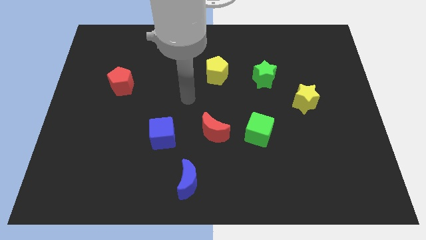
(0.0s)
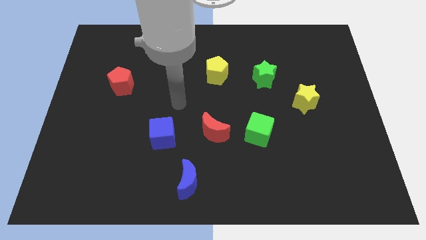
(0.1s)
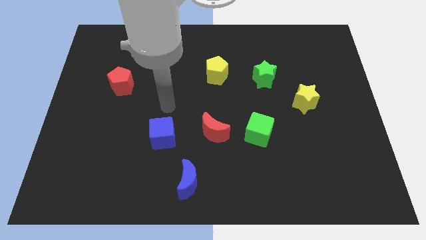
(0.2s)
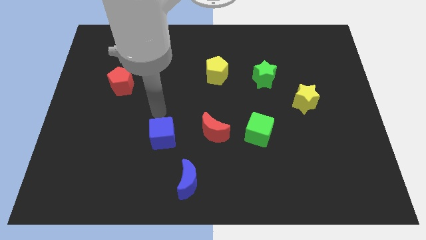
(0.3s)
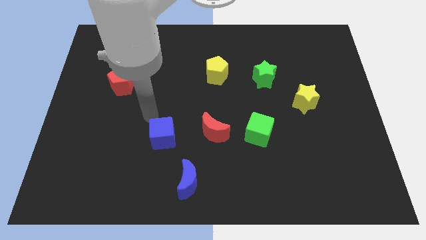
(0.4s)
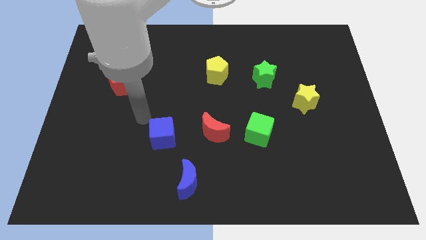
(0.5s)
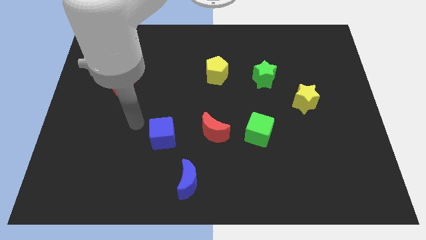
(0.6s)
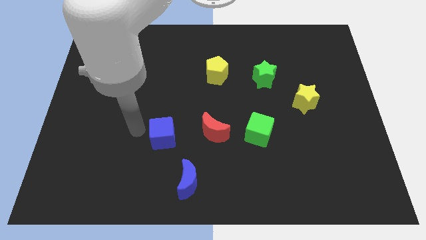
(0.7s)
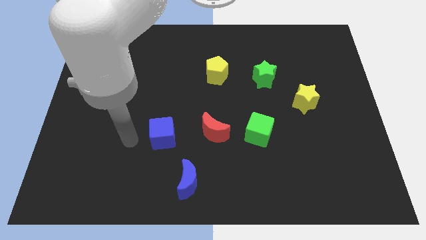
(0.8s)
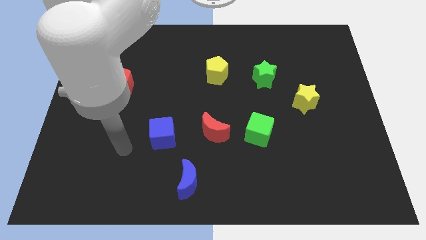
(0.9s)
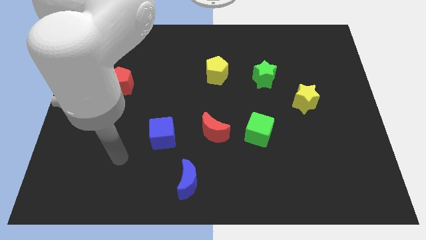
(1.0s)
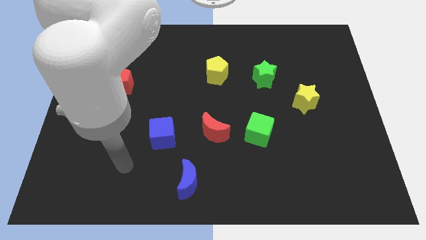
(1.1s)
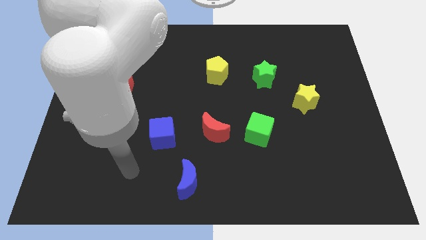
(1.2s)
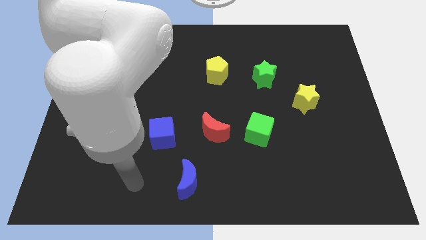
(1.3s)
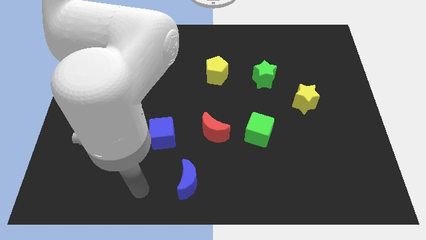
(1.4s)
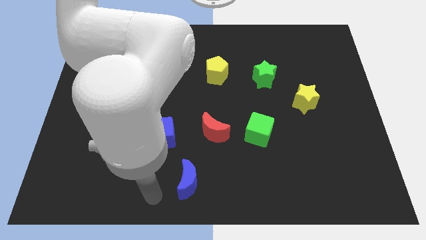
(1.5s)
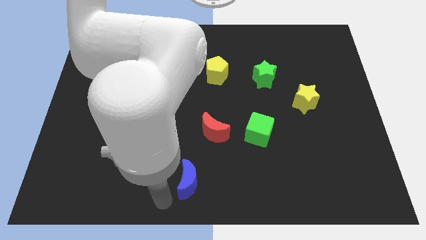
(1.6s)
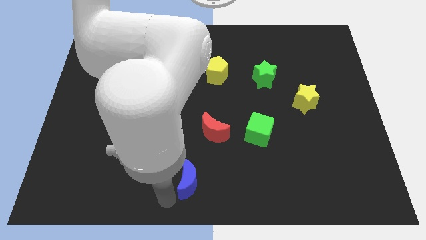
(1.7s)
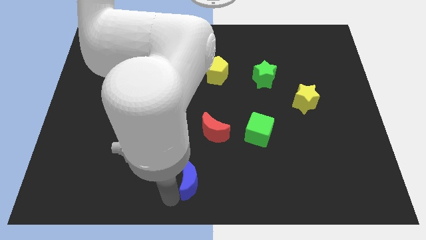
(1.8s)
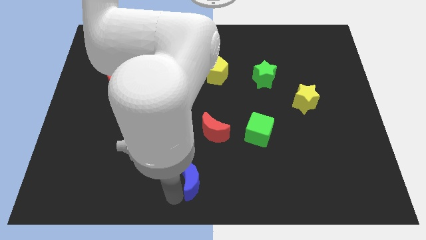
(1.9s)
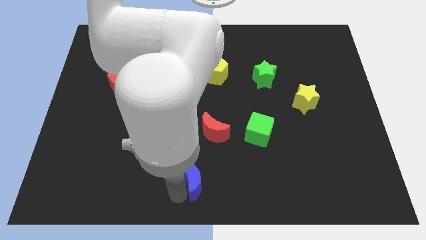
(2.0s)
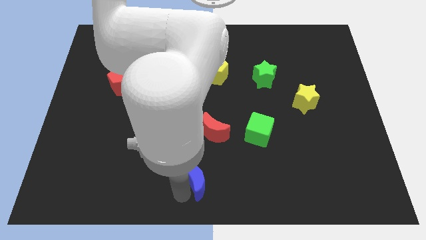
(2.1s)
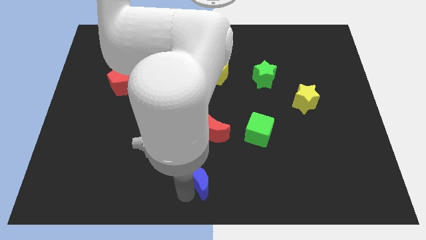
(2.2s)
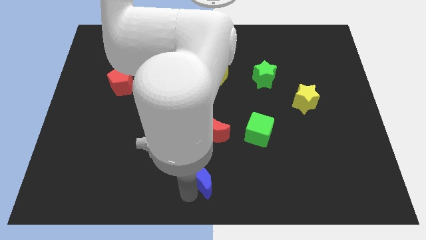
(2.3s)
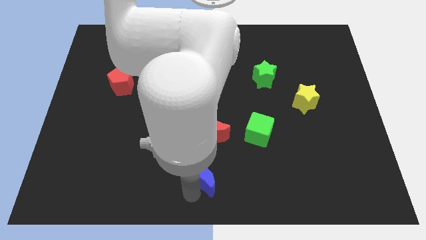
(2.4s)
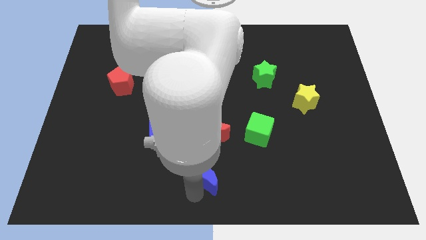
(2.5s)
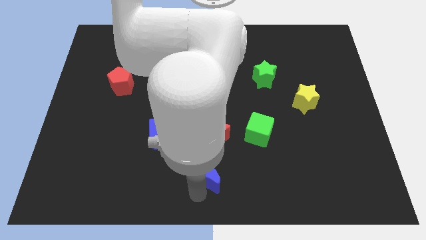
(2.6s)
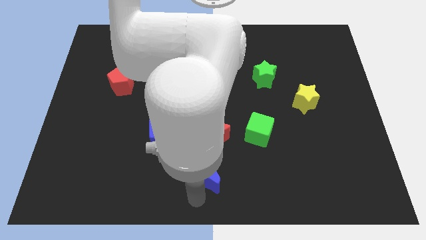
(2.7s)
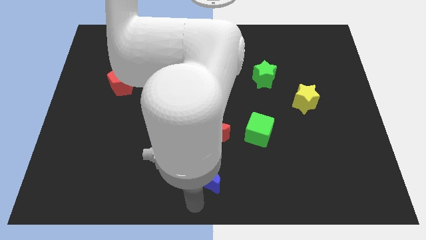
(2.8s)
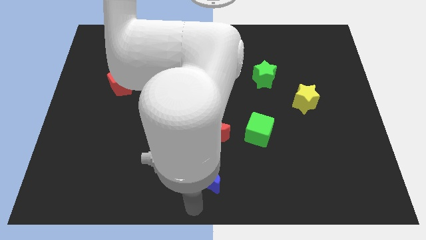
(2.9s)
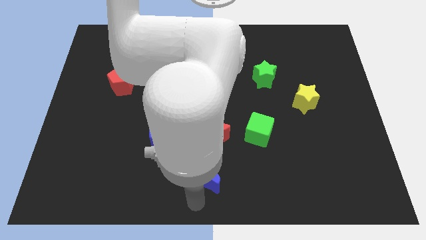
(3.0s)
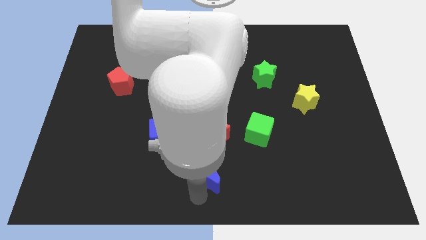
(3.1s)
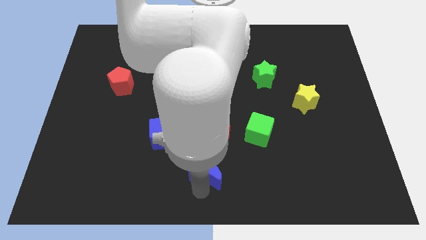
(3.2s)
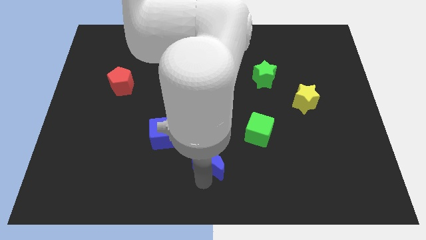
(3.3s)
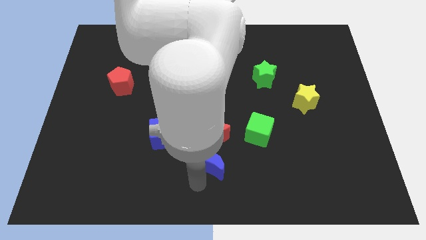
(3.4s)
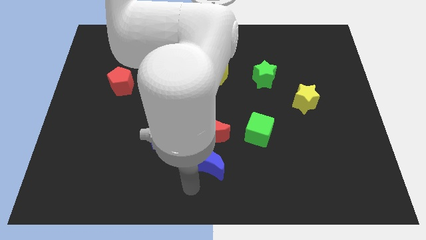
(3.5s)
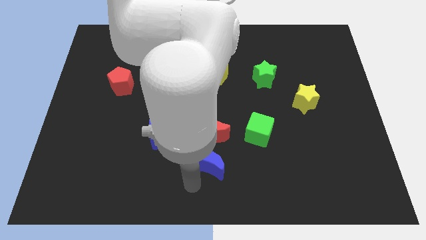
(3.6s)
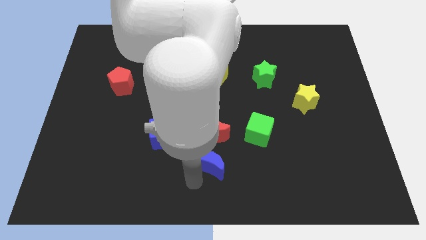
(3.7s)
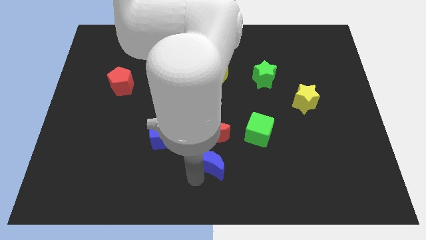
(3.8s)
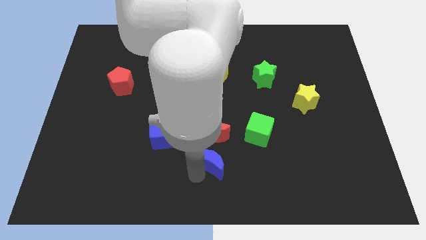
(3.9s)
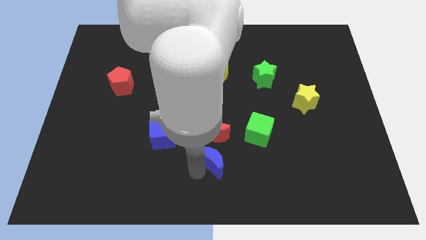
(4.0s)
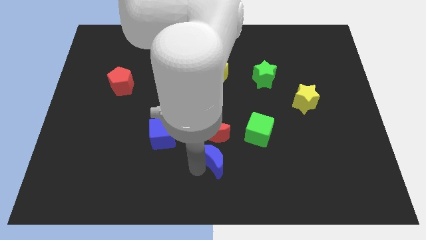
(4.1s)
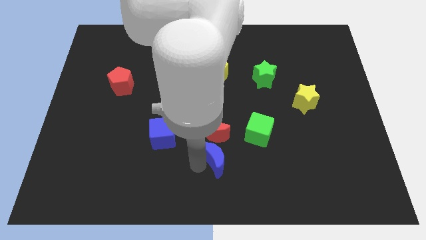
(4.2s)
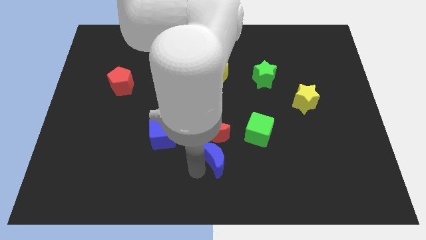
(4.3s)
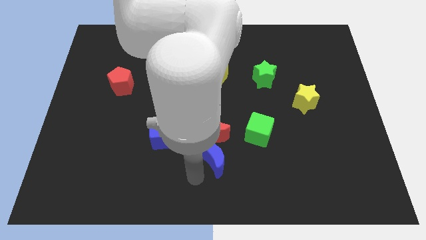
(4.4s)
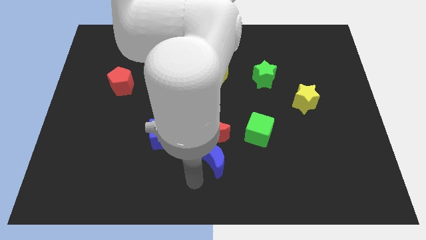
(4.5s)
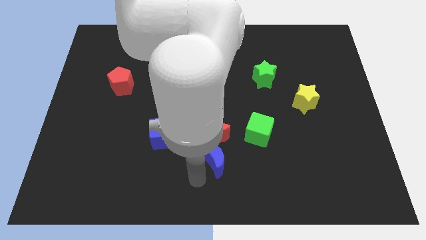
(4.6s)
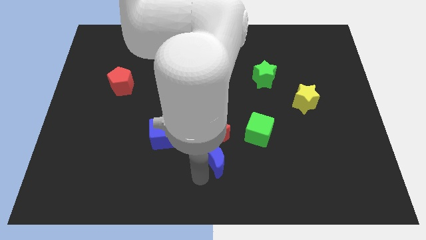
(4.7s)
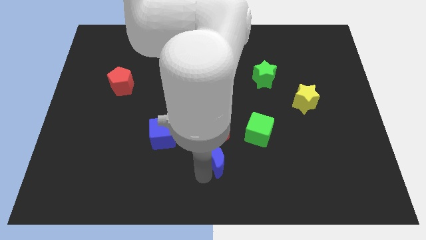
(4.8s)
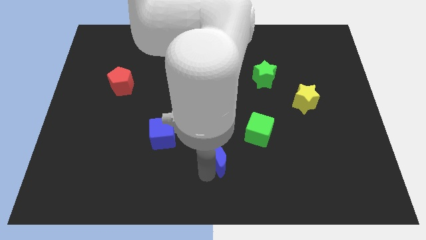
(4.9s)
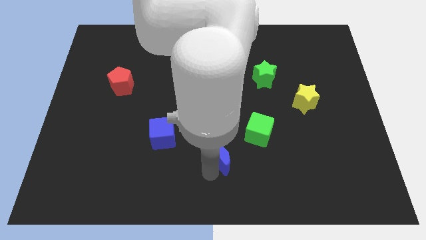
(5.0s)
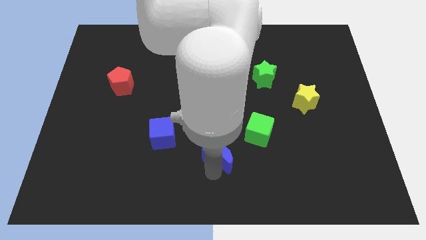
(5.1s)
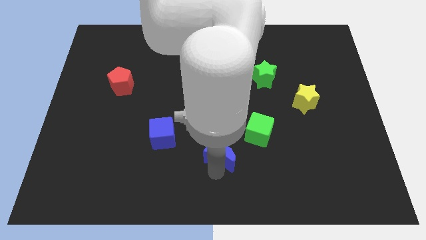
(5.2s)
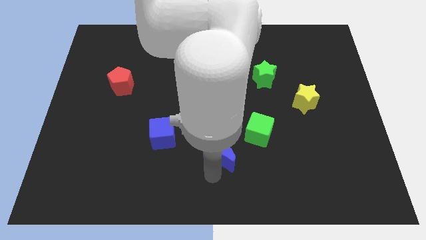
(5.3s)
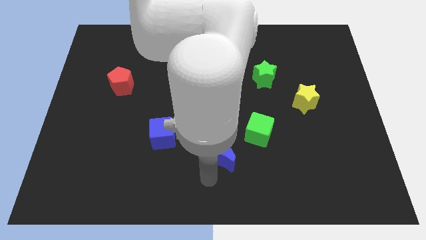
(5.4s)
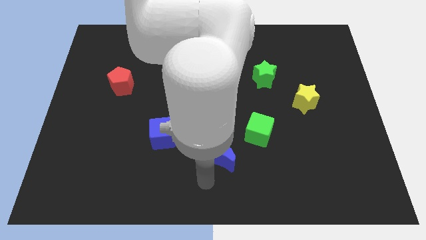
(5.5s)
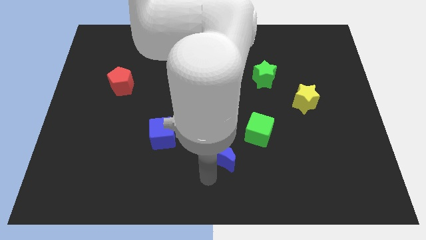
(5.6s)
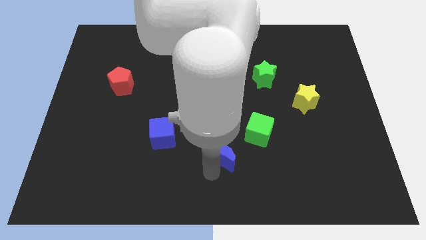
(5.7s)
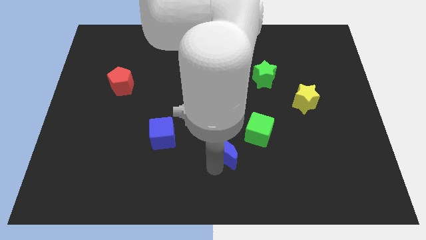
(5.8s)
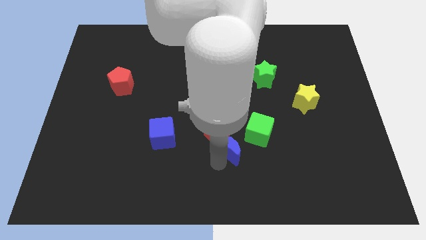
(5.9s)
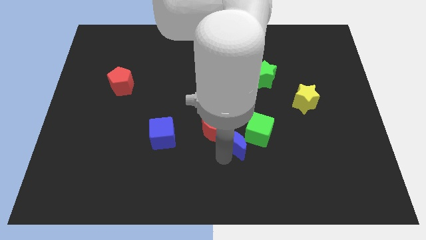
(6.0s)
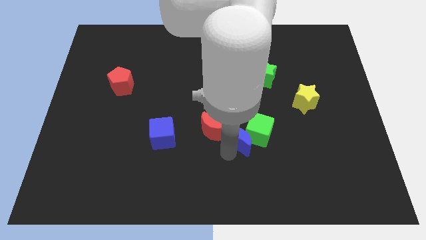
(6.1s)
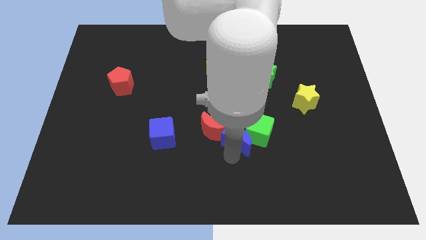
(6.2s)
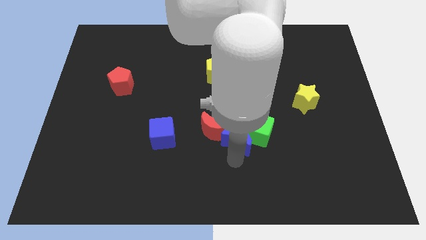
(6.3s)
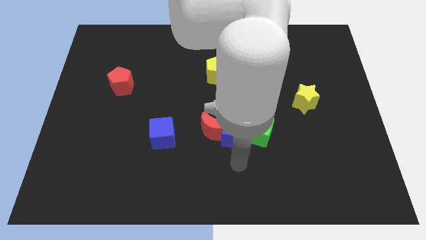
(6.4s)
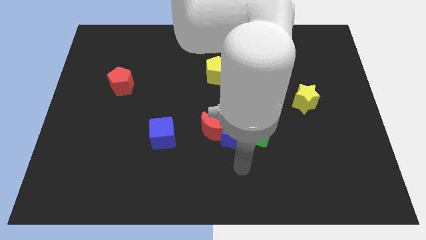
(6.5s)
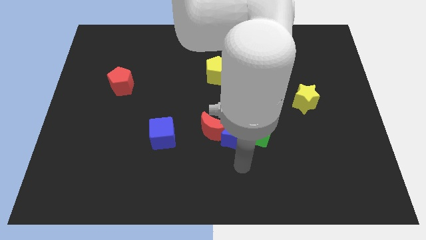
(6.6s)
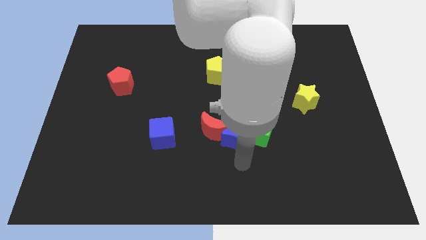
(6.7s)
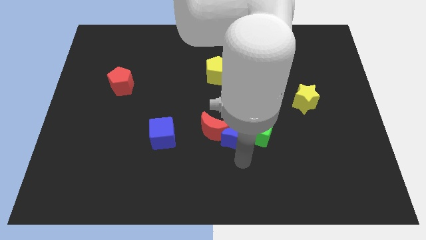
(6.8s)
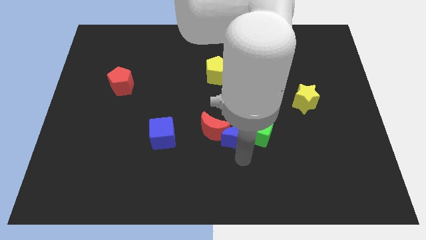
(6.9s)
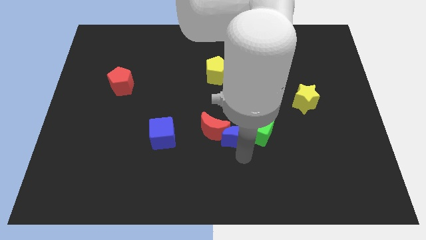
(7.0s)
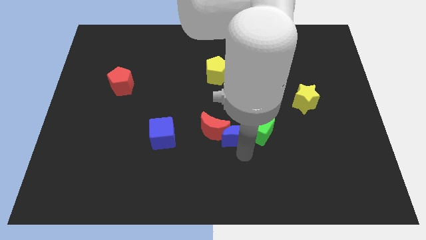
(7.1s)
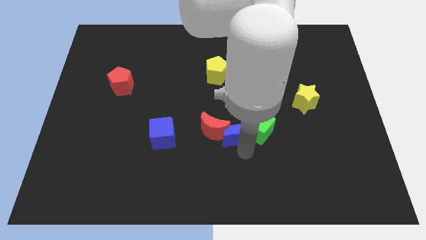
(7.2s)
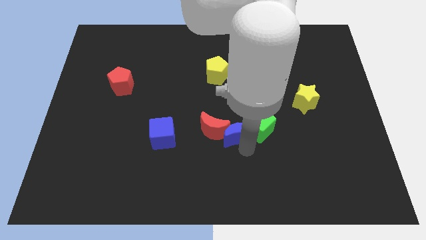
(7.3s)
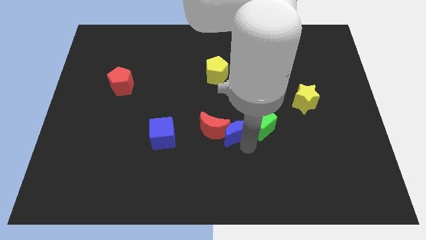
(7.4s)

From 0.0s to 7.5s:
put the blue moon to the top right side of the red moon
